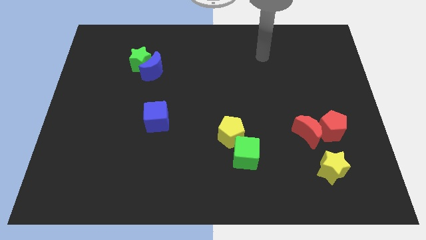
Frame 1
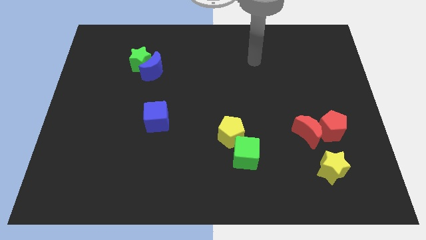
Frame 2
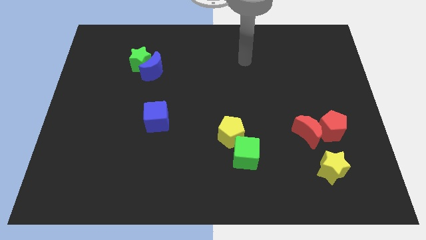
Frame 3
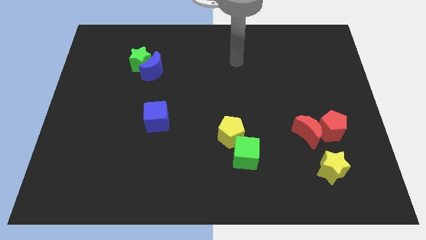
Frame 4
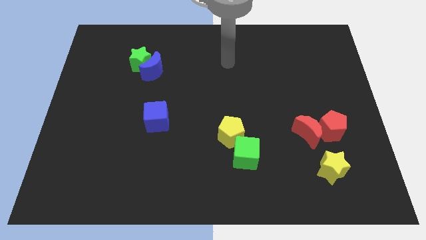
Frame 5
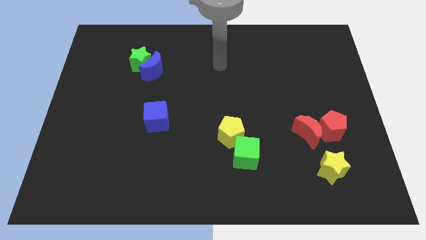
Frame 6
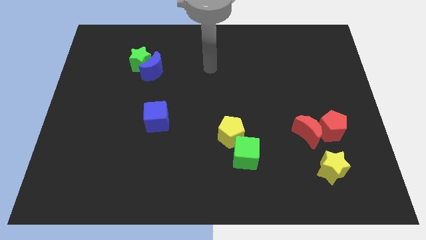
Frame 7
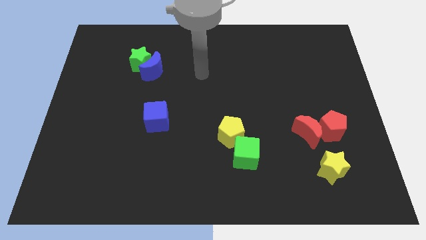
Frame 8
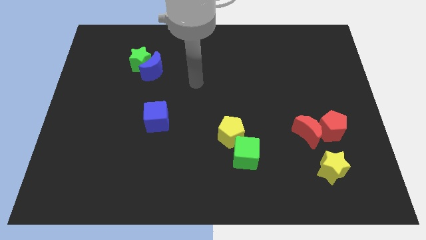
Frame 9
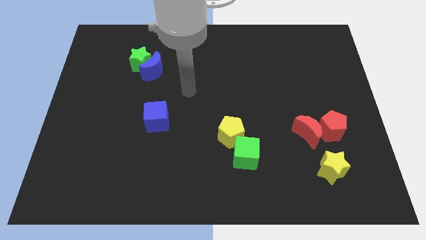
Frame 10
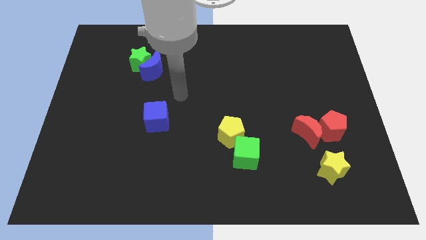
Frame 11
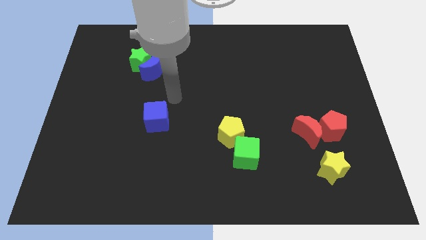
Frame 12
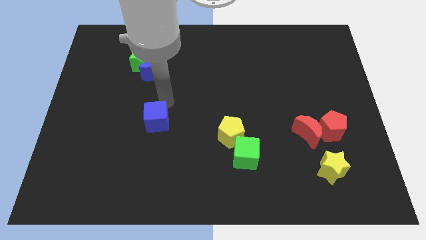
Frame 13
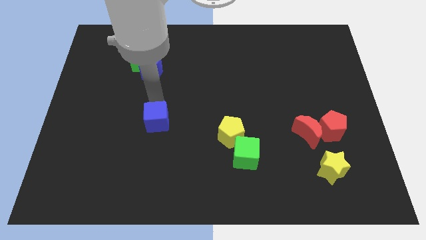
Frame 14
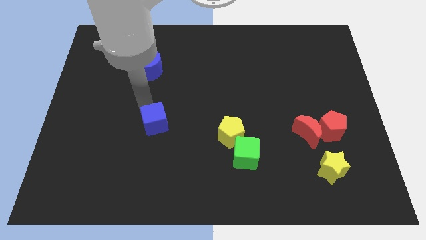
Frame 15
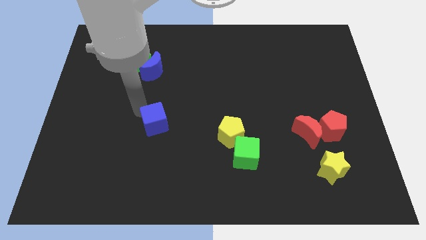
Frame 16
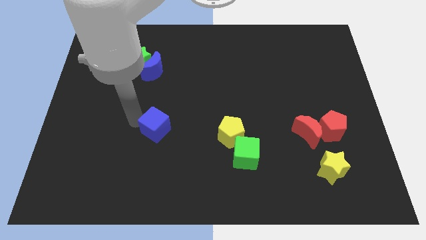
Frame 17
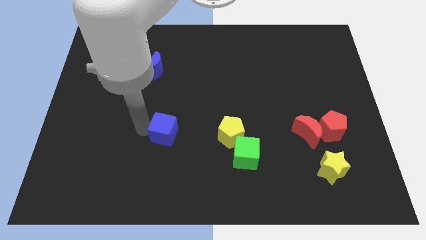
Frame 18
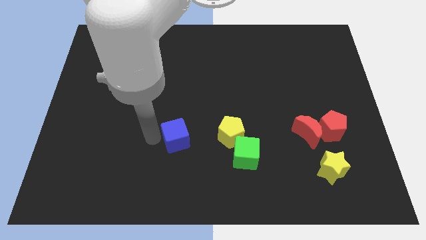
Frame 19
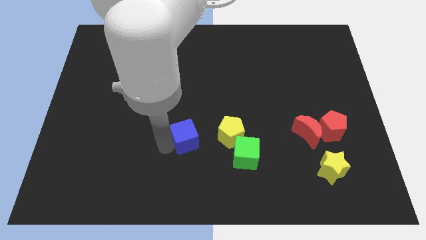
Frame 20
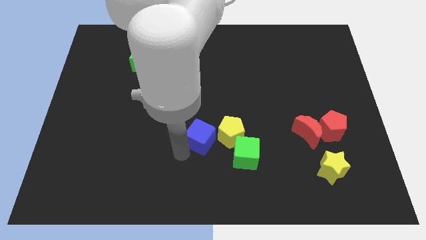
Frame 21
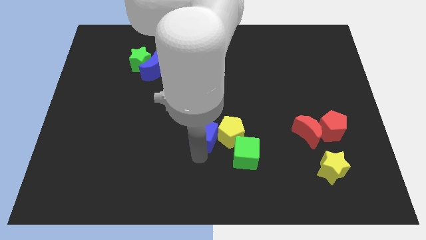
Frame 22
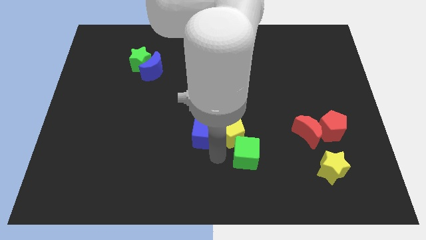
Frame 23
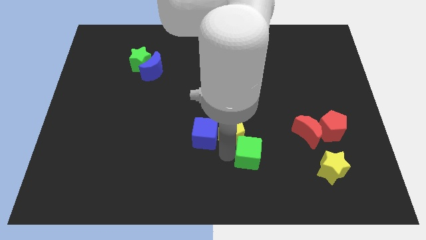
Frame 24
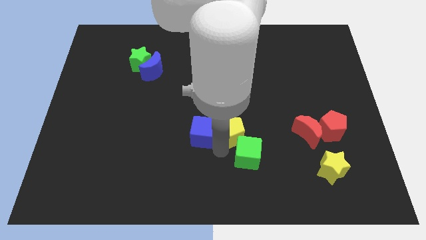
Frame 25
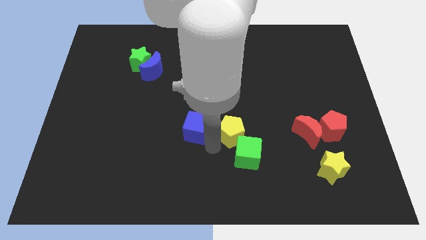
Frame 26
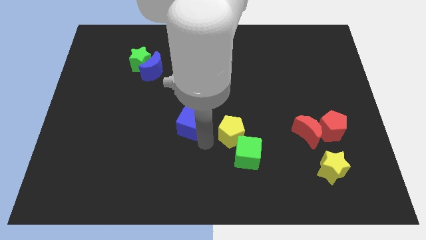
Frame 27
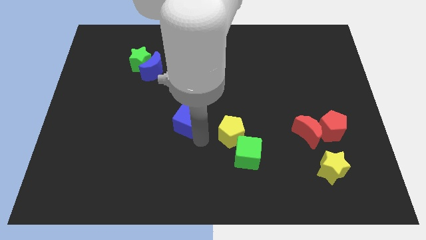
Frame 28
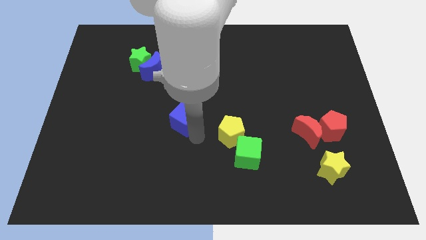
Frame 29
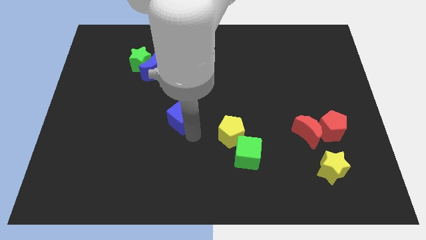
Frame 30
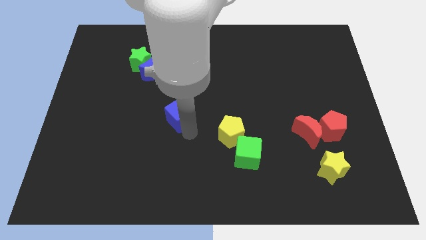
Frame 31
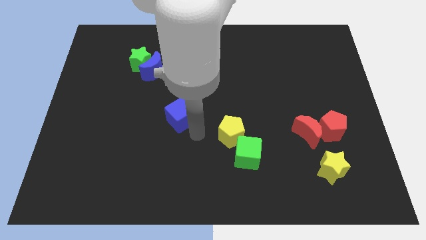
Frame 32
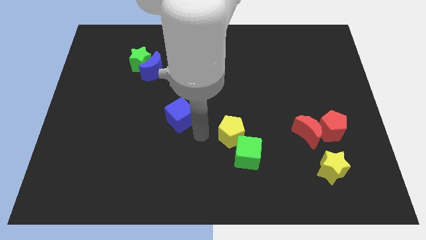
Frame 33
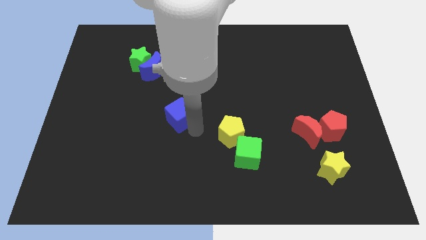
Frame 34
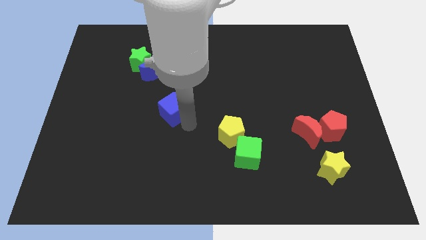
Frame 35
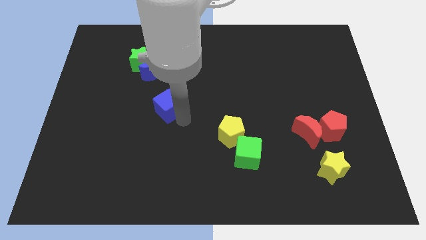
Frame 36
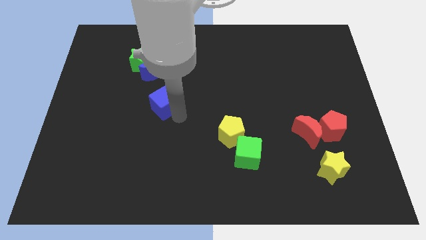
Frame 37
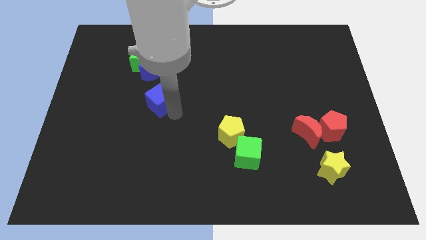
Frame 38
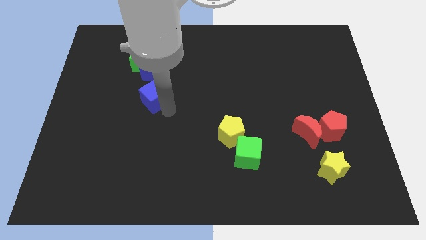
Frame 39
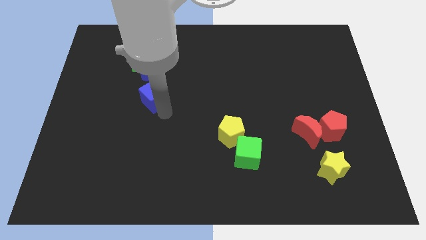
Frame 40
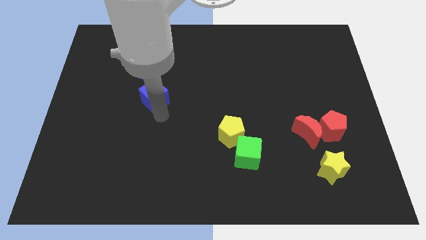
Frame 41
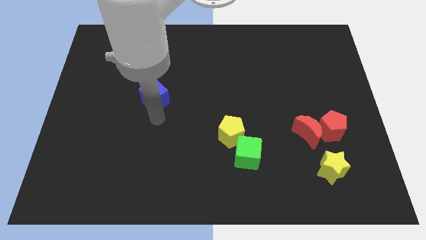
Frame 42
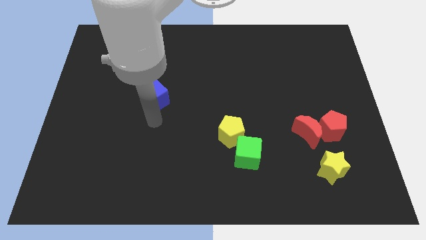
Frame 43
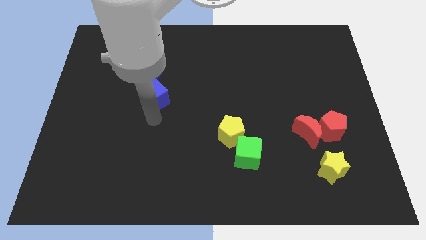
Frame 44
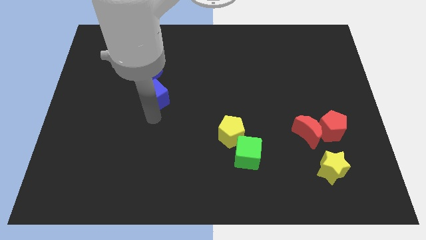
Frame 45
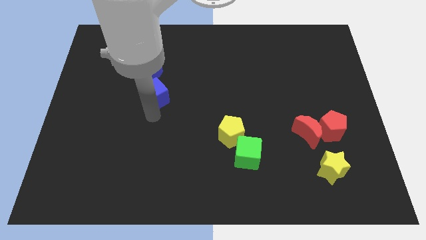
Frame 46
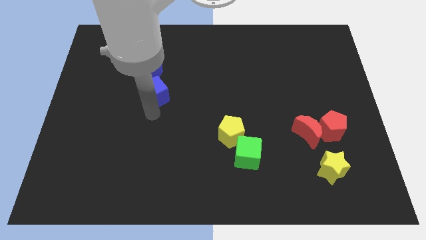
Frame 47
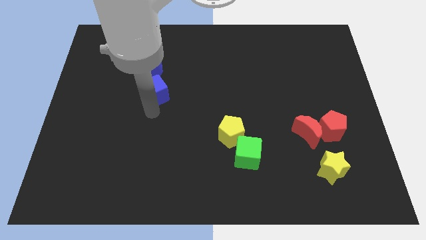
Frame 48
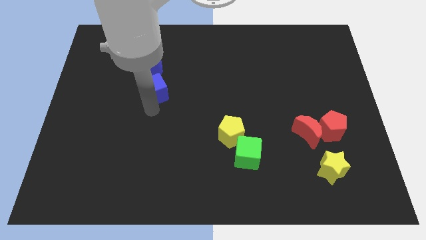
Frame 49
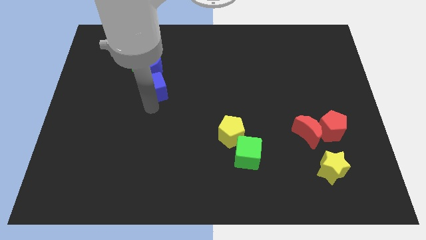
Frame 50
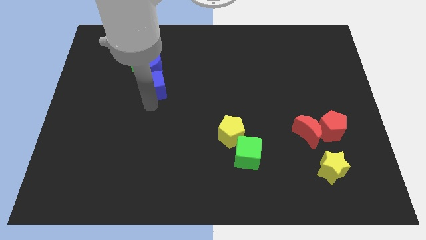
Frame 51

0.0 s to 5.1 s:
push the blue cube to the blue moon

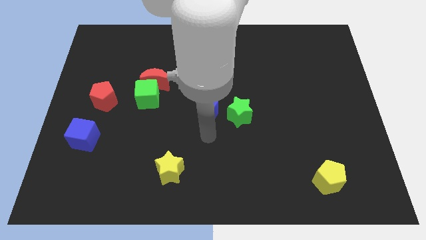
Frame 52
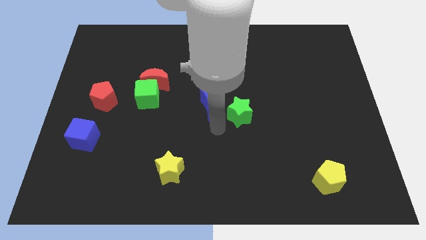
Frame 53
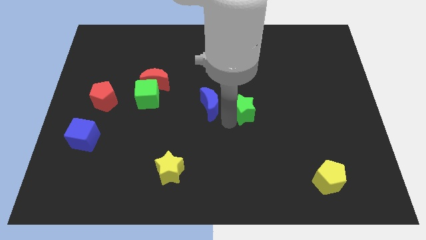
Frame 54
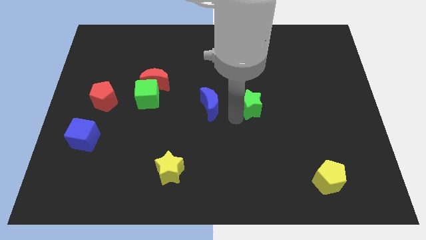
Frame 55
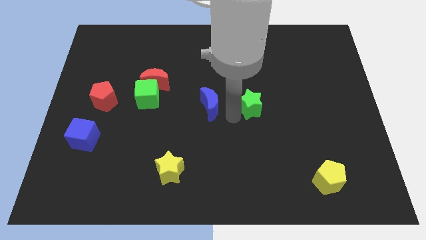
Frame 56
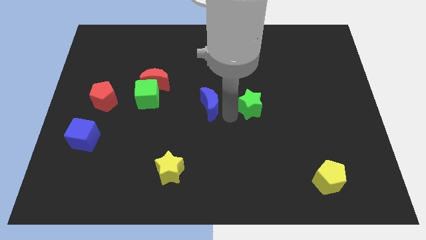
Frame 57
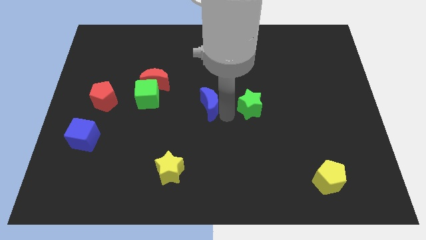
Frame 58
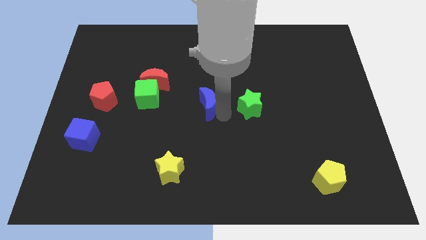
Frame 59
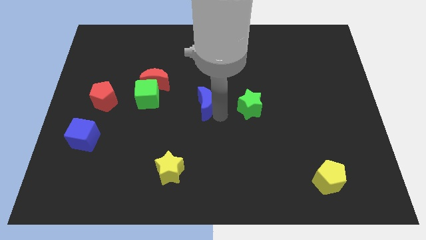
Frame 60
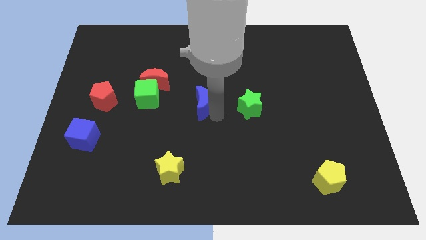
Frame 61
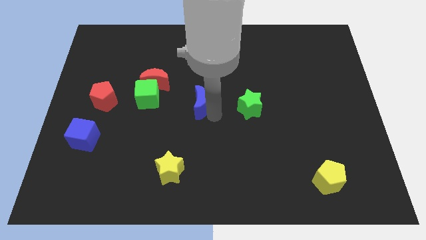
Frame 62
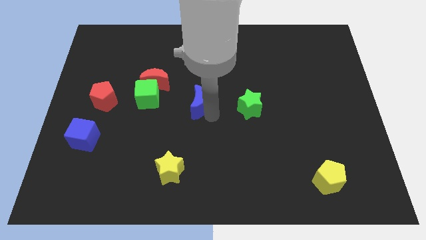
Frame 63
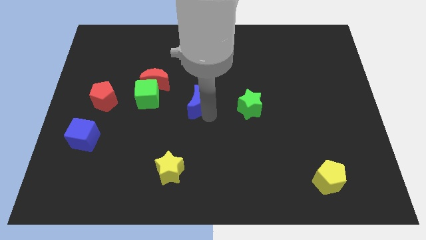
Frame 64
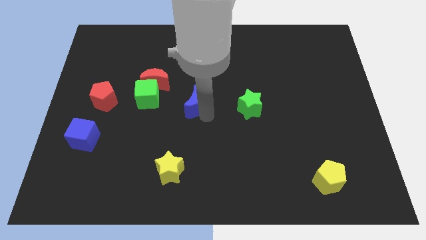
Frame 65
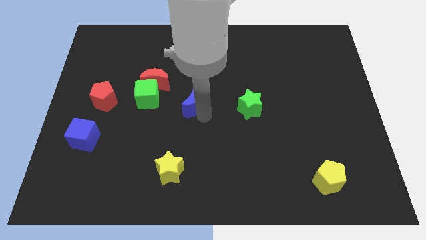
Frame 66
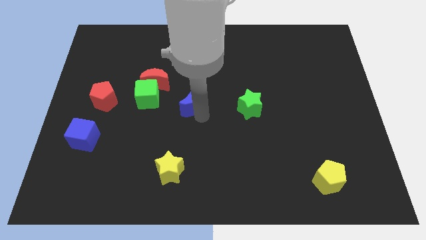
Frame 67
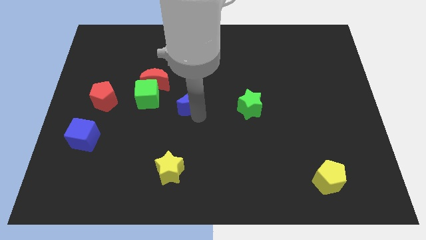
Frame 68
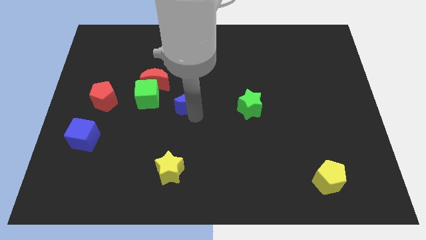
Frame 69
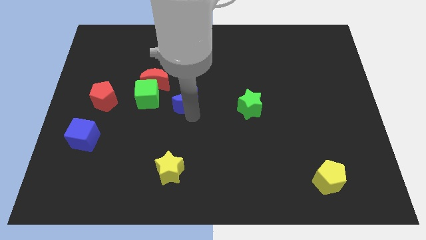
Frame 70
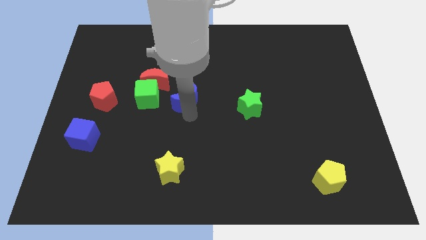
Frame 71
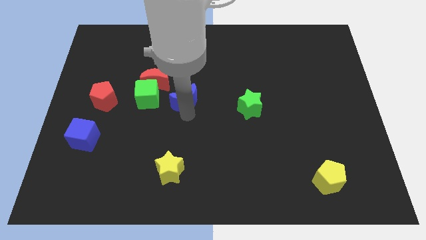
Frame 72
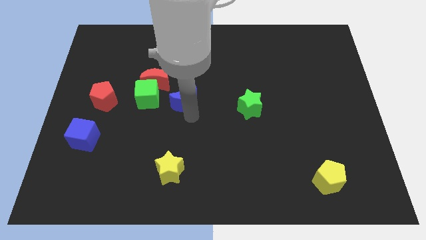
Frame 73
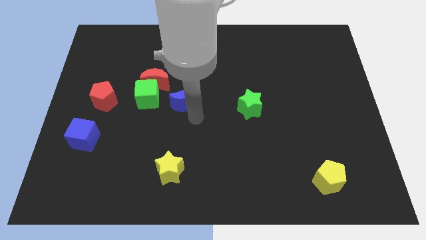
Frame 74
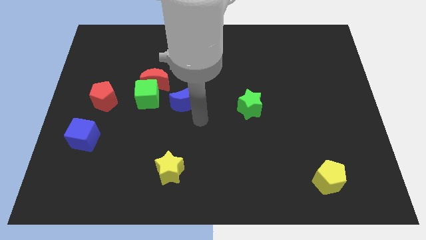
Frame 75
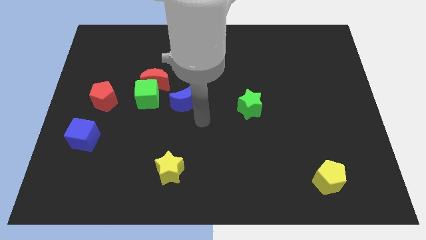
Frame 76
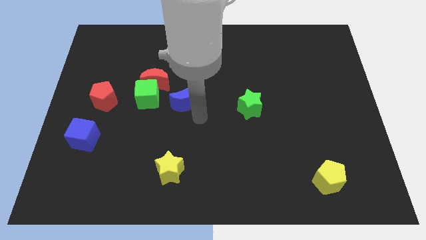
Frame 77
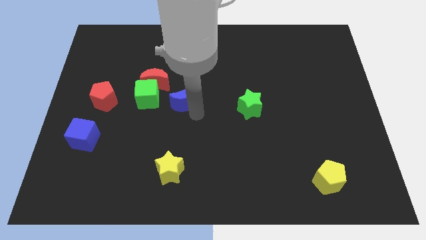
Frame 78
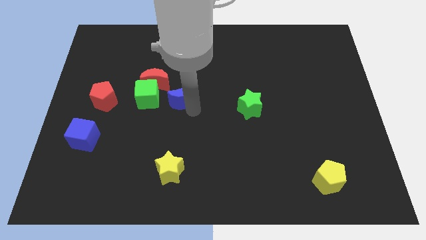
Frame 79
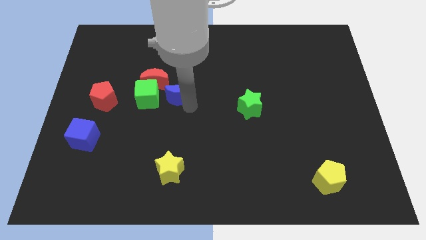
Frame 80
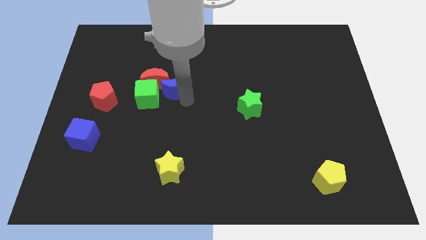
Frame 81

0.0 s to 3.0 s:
slide the blue moon close to the red moon
